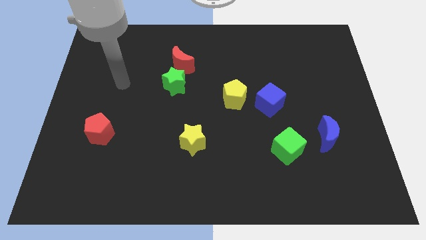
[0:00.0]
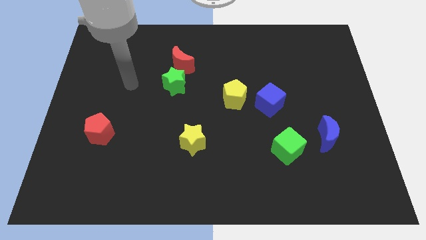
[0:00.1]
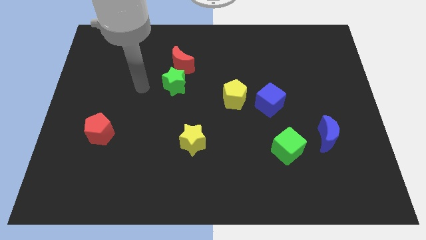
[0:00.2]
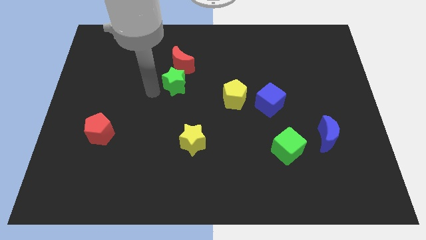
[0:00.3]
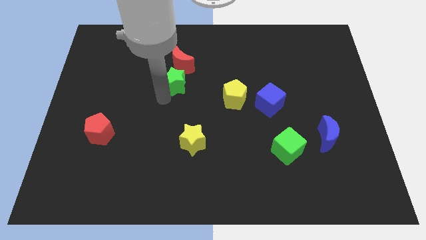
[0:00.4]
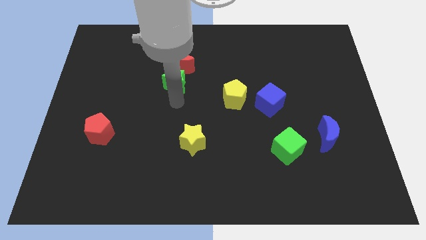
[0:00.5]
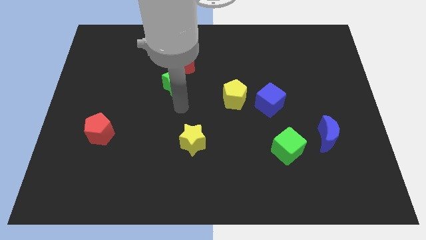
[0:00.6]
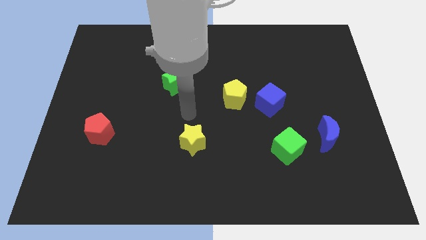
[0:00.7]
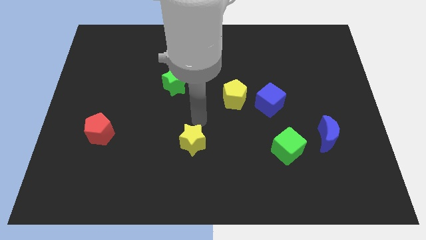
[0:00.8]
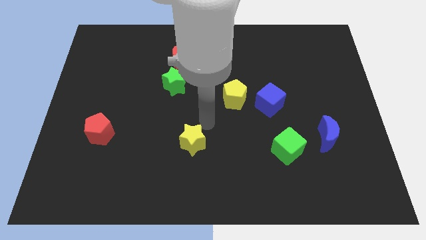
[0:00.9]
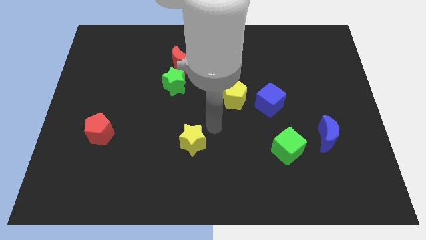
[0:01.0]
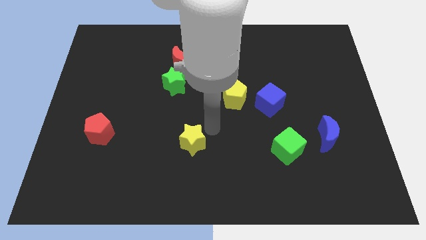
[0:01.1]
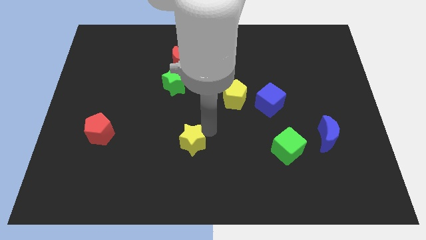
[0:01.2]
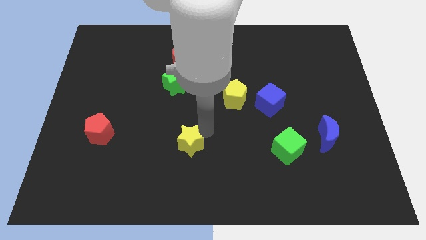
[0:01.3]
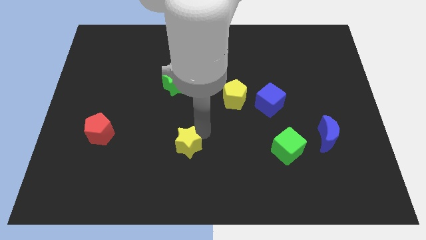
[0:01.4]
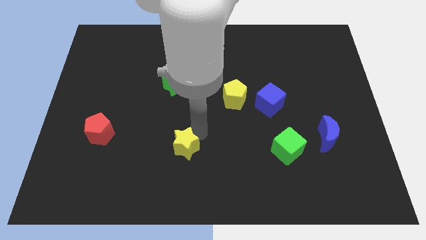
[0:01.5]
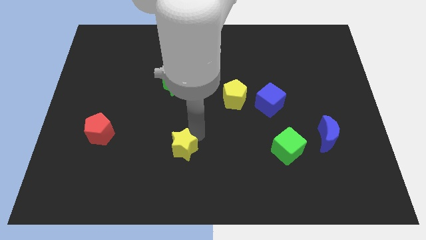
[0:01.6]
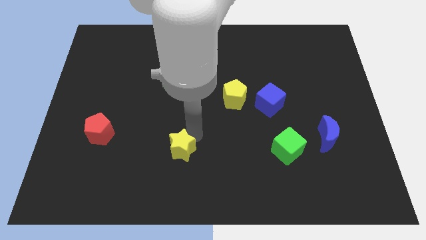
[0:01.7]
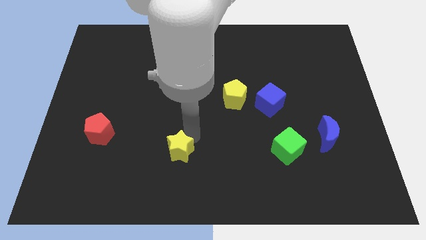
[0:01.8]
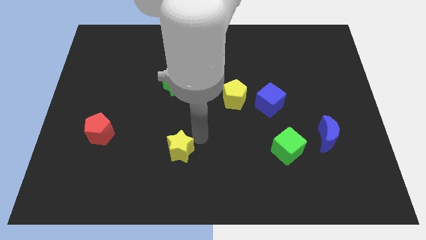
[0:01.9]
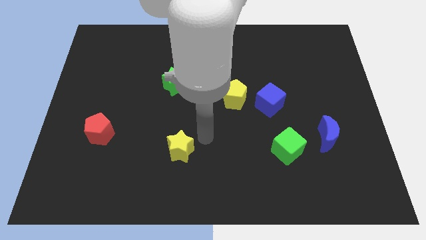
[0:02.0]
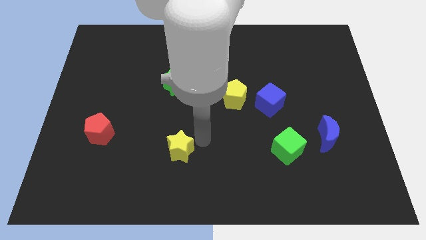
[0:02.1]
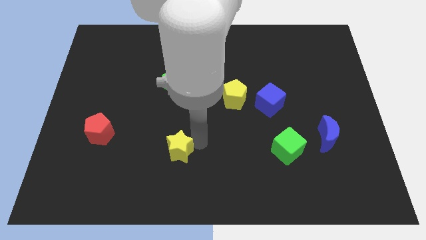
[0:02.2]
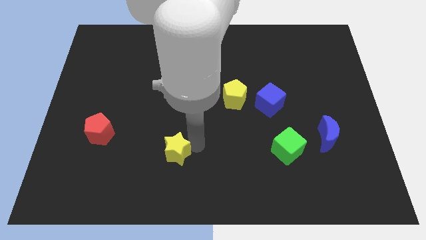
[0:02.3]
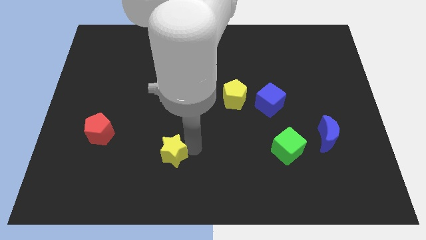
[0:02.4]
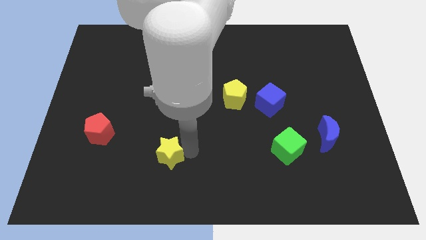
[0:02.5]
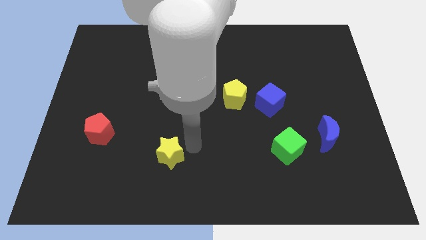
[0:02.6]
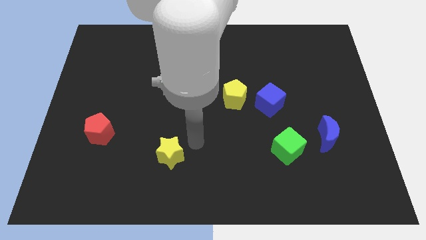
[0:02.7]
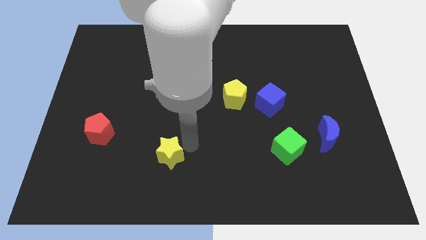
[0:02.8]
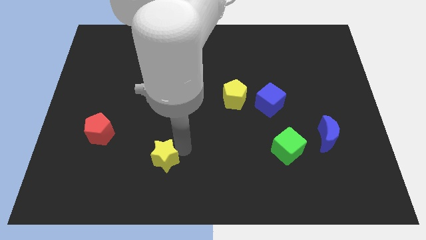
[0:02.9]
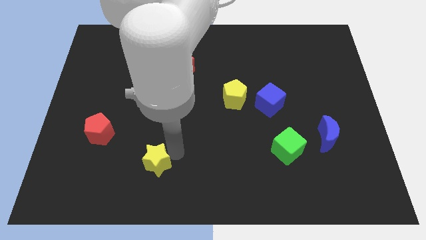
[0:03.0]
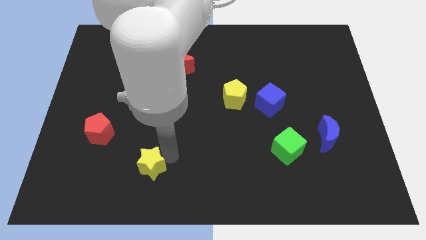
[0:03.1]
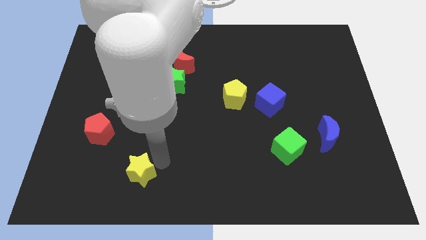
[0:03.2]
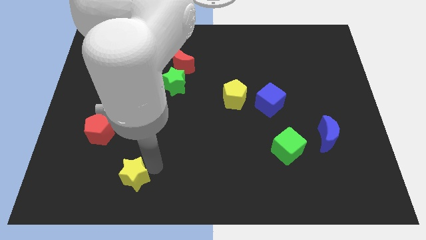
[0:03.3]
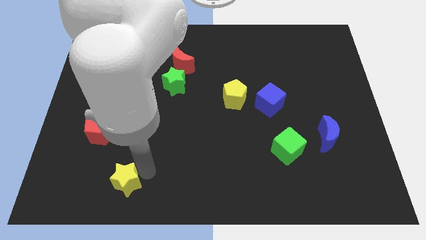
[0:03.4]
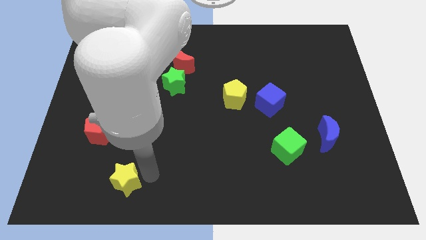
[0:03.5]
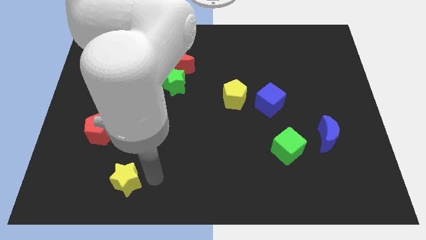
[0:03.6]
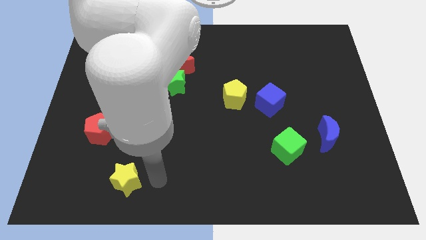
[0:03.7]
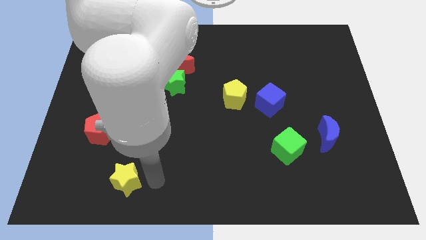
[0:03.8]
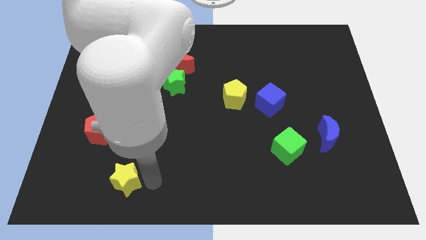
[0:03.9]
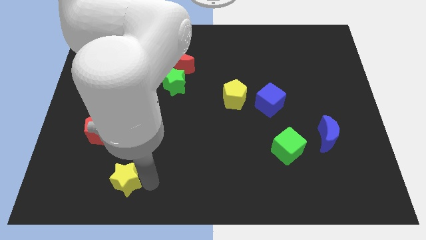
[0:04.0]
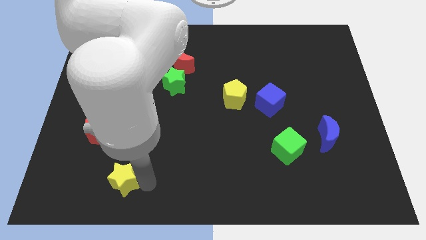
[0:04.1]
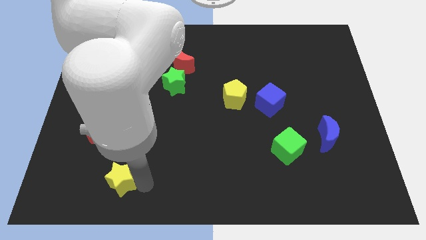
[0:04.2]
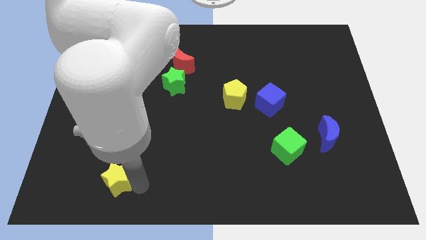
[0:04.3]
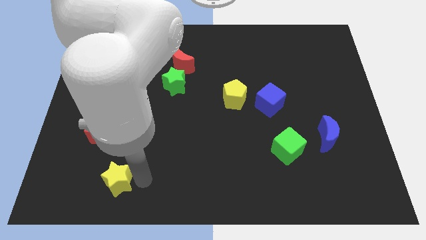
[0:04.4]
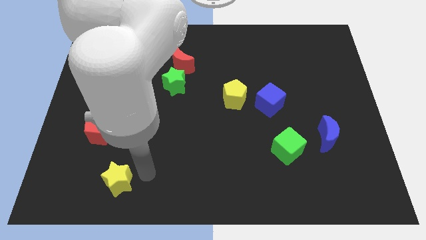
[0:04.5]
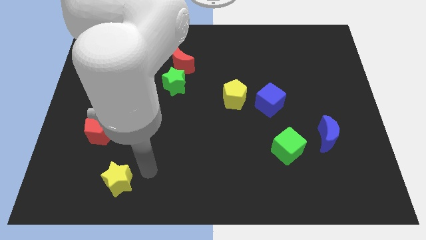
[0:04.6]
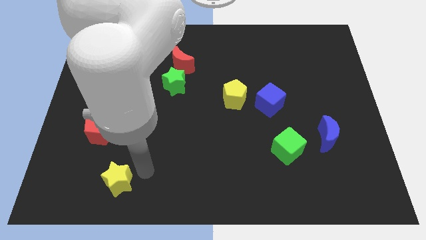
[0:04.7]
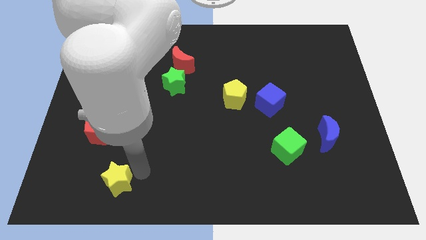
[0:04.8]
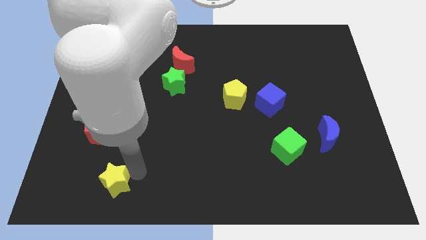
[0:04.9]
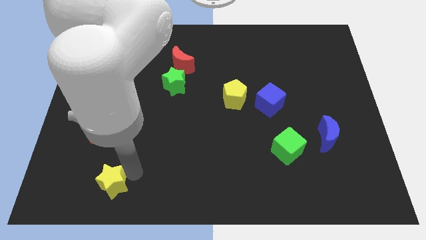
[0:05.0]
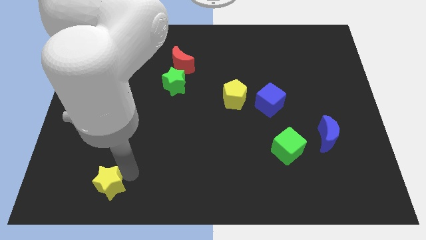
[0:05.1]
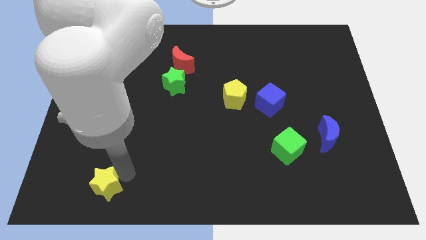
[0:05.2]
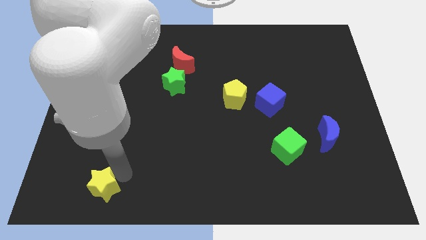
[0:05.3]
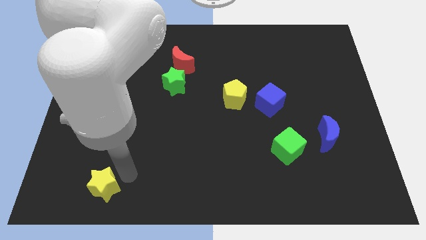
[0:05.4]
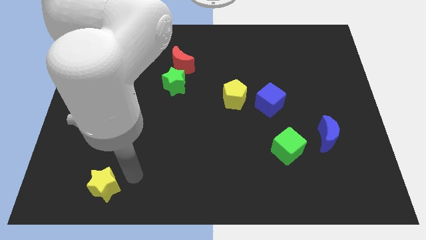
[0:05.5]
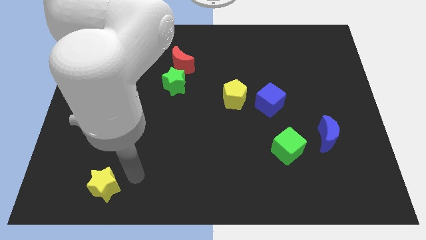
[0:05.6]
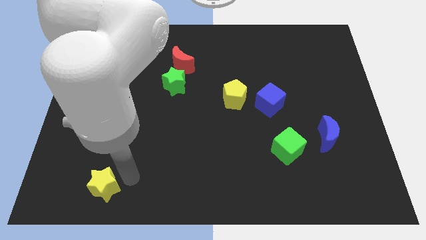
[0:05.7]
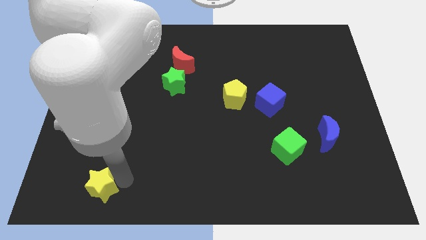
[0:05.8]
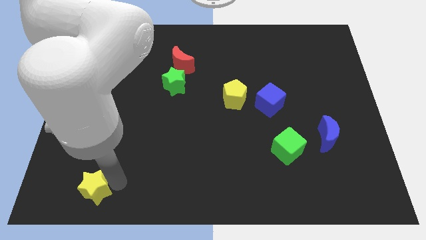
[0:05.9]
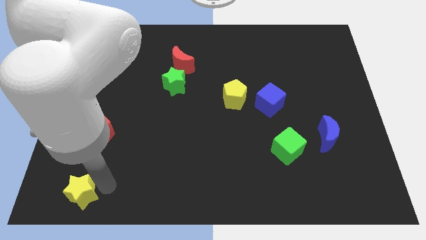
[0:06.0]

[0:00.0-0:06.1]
slide the yellow star to the bottom left of the board

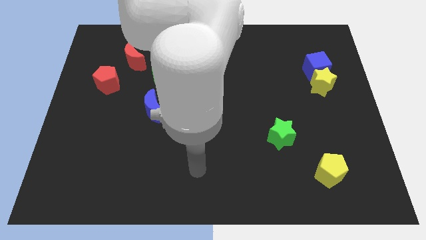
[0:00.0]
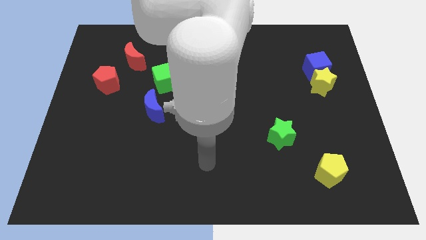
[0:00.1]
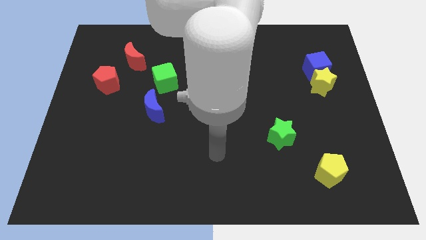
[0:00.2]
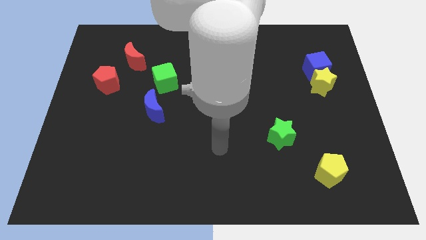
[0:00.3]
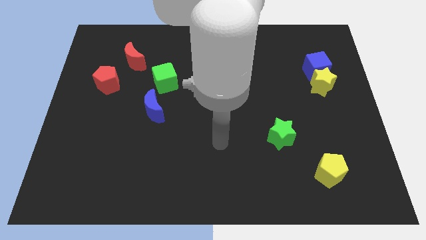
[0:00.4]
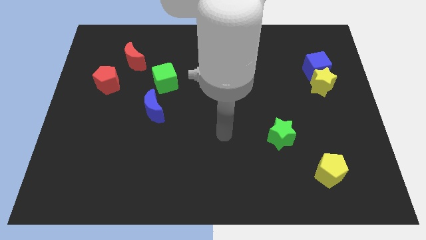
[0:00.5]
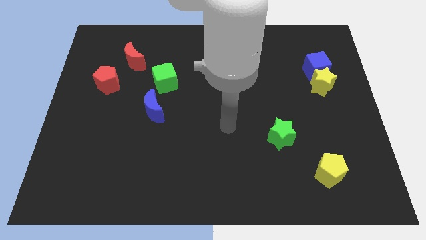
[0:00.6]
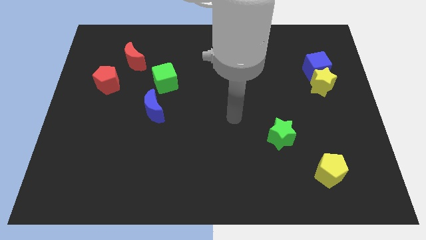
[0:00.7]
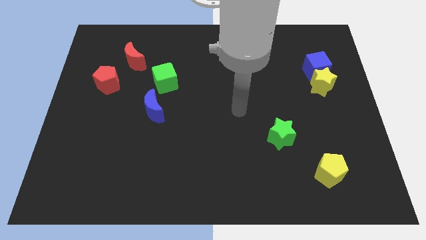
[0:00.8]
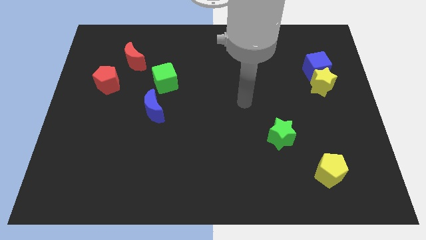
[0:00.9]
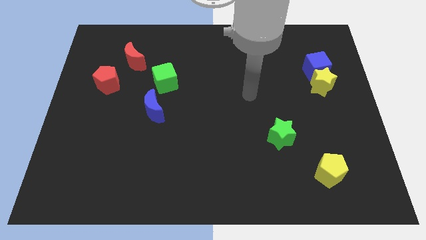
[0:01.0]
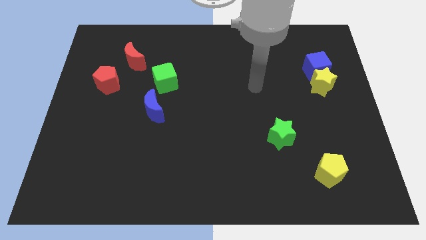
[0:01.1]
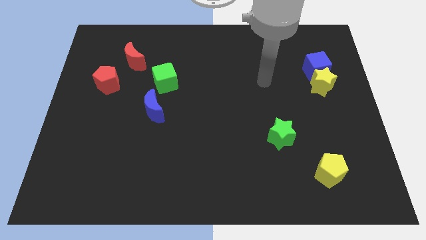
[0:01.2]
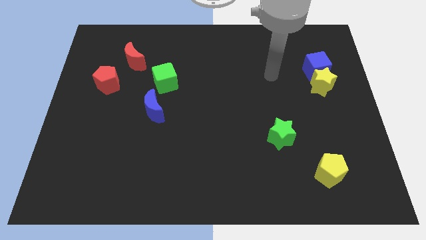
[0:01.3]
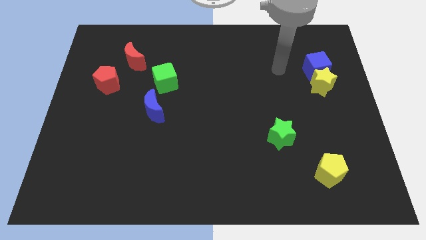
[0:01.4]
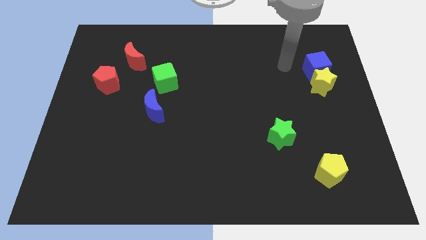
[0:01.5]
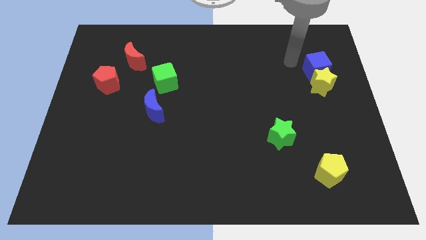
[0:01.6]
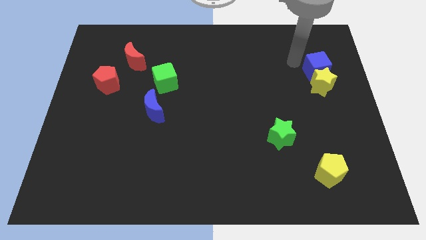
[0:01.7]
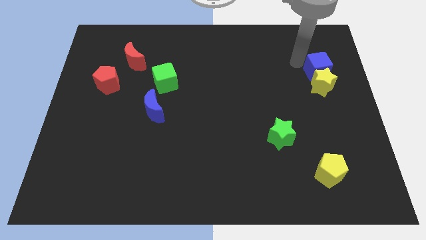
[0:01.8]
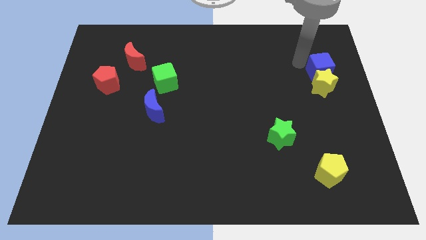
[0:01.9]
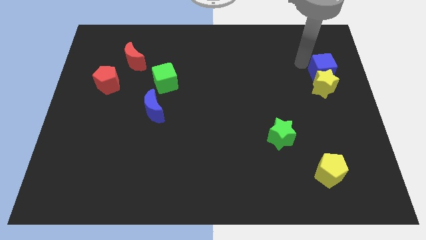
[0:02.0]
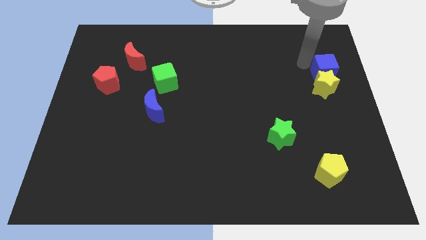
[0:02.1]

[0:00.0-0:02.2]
move the blue cube to the right side
